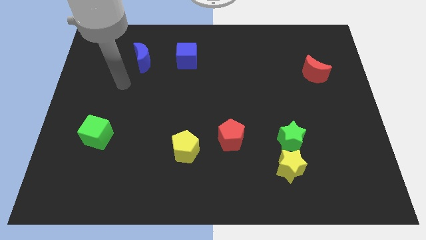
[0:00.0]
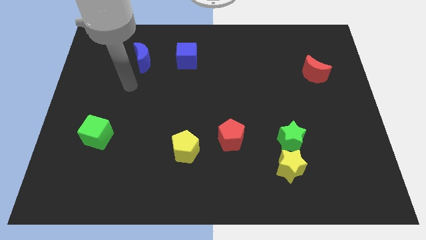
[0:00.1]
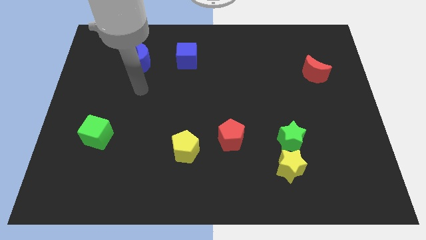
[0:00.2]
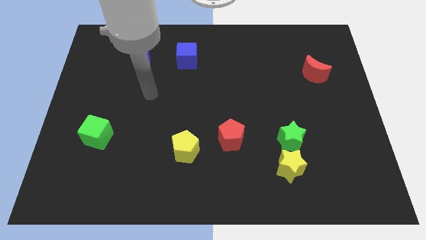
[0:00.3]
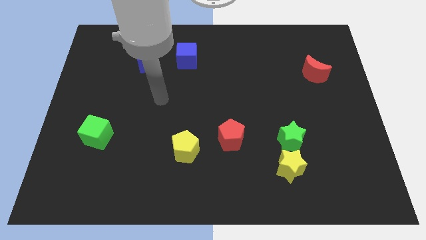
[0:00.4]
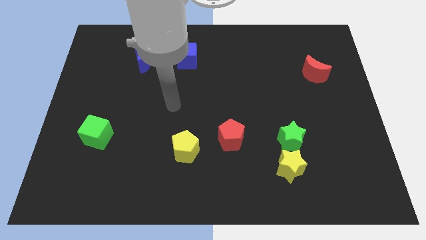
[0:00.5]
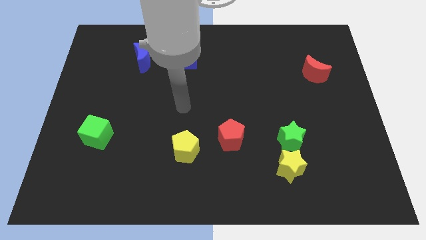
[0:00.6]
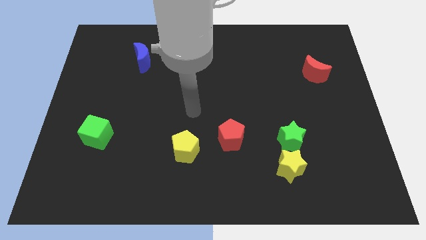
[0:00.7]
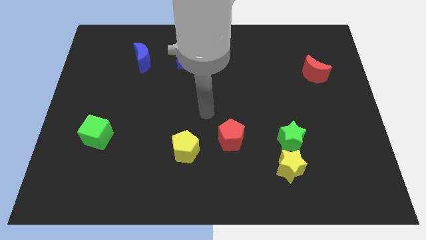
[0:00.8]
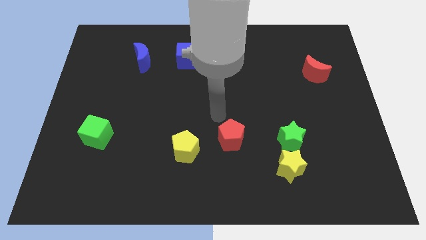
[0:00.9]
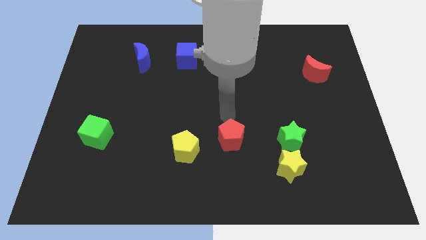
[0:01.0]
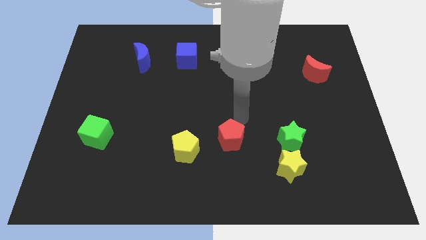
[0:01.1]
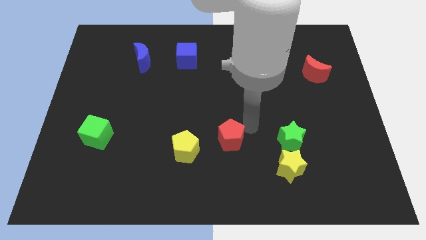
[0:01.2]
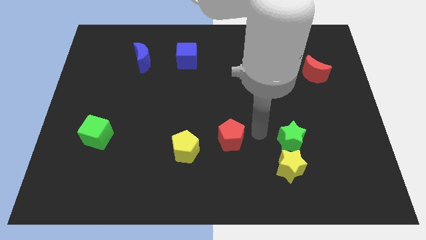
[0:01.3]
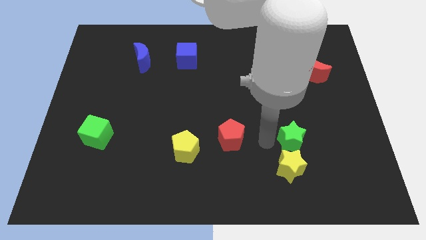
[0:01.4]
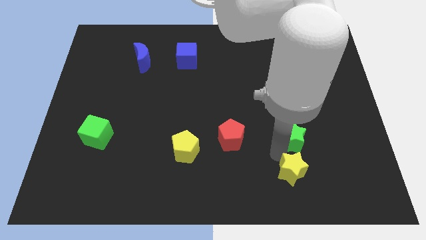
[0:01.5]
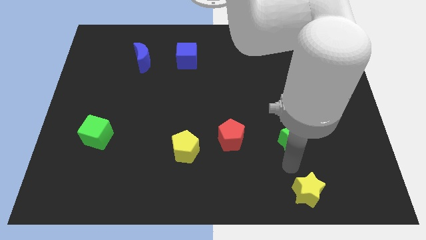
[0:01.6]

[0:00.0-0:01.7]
pull the green star apart from the yellow star

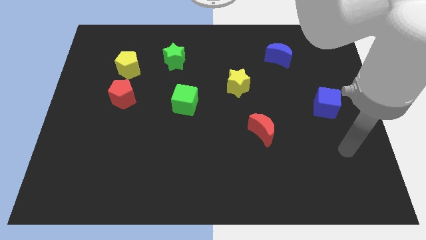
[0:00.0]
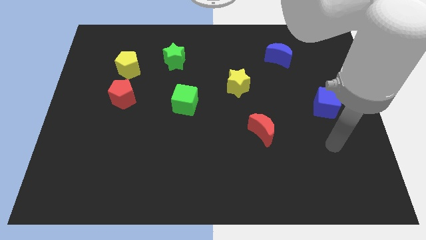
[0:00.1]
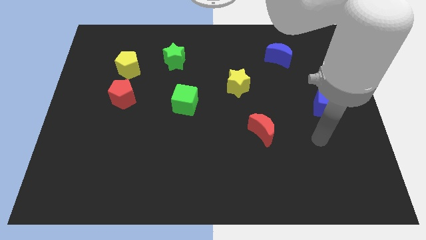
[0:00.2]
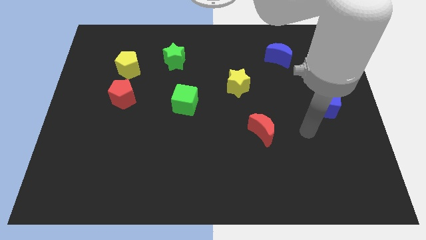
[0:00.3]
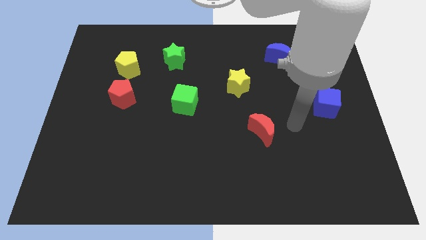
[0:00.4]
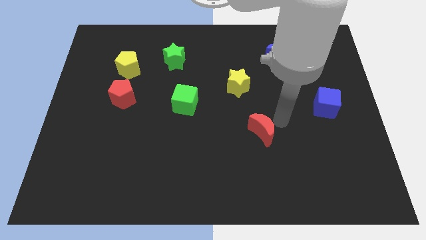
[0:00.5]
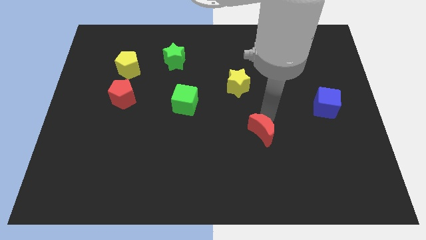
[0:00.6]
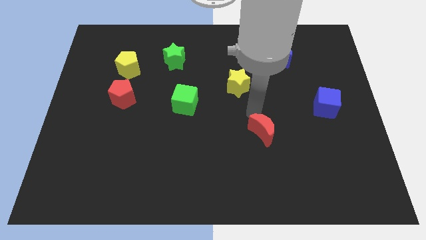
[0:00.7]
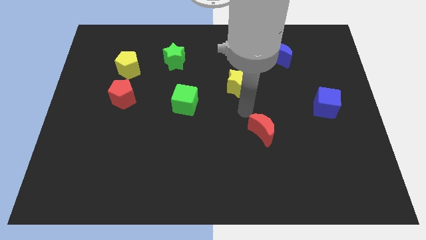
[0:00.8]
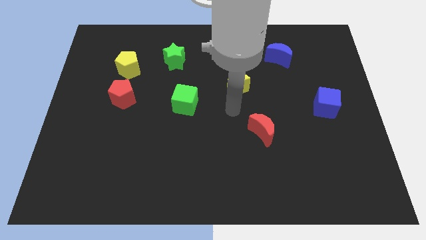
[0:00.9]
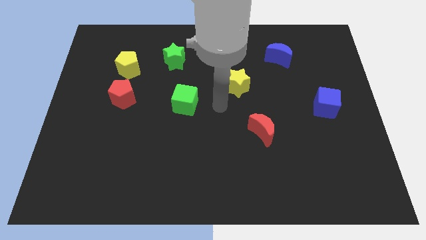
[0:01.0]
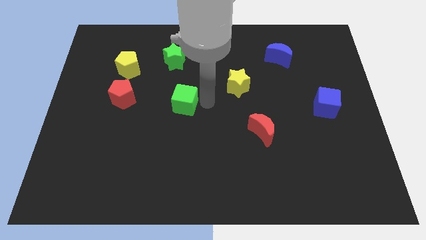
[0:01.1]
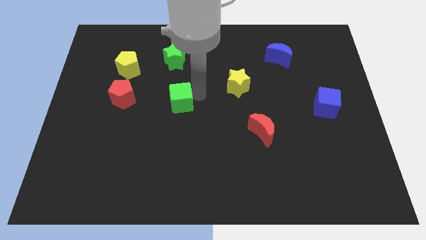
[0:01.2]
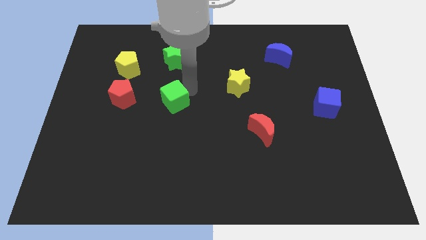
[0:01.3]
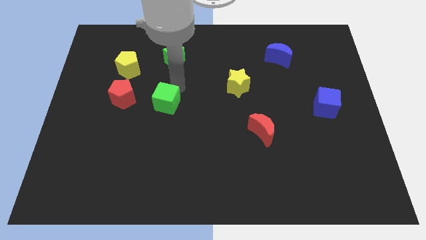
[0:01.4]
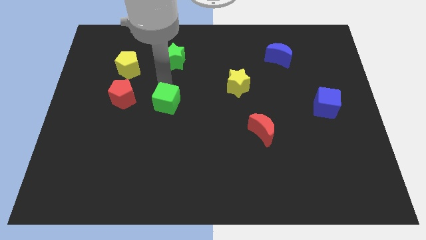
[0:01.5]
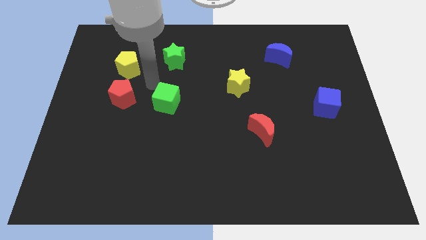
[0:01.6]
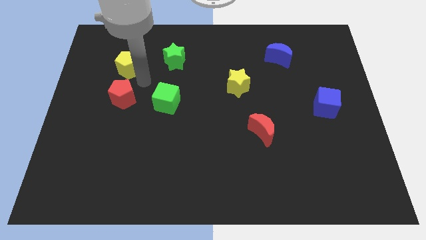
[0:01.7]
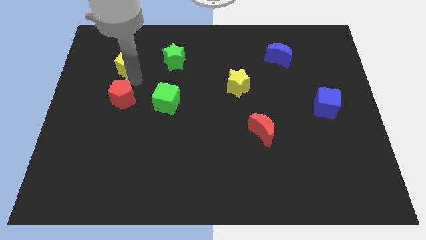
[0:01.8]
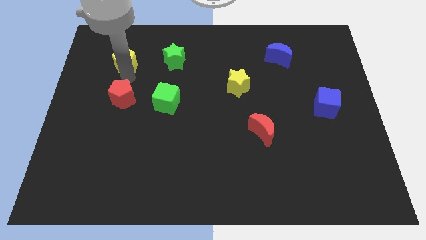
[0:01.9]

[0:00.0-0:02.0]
separate the red pentagon from the yellow pentagon

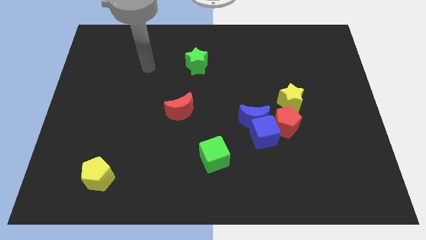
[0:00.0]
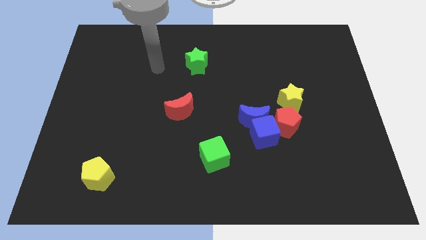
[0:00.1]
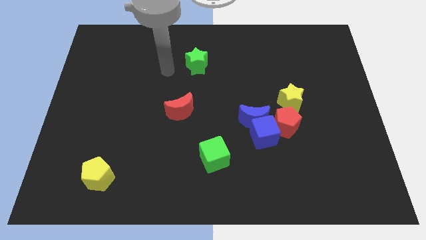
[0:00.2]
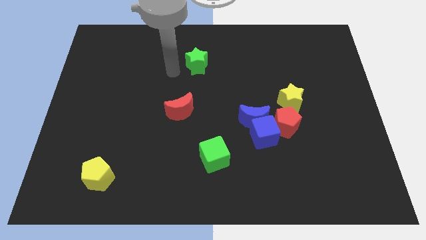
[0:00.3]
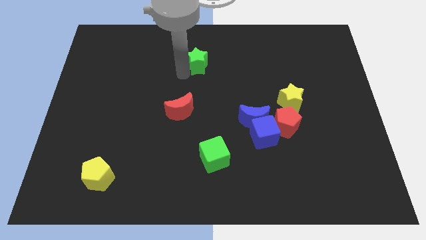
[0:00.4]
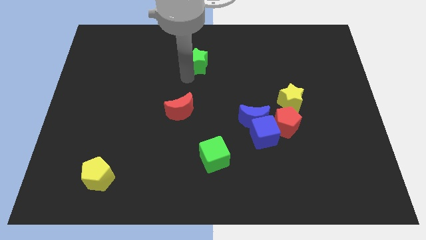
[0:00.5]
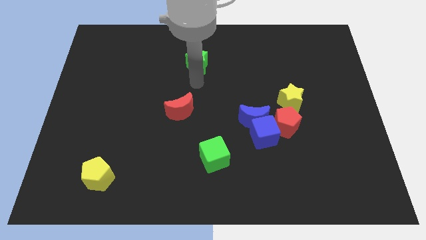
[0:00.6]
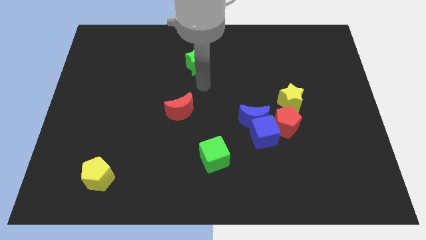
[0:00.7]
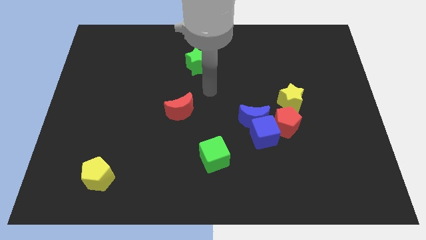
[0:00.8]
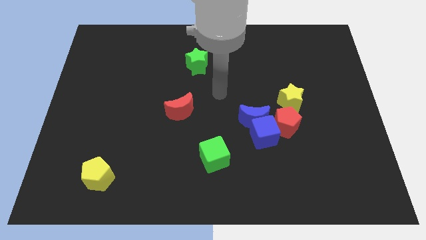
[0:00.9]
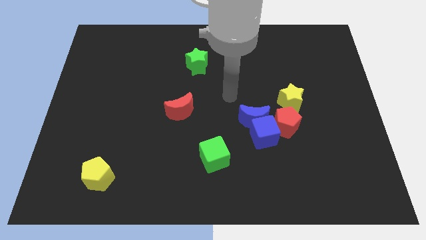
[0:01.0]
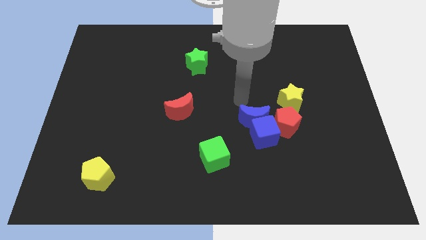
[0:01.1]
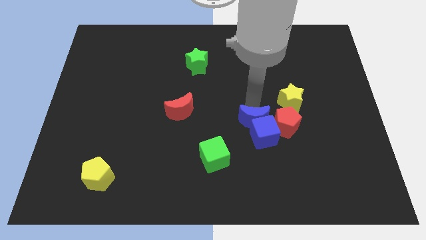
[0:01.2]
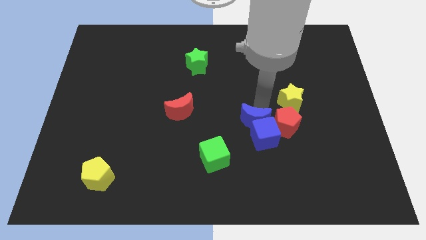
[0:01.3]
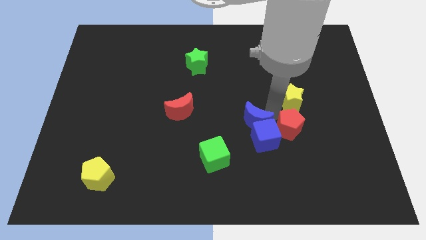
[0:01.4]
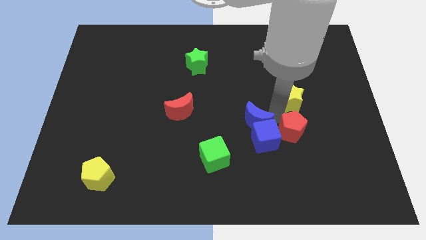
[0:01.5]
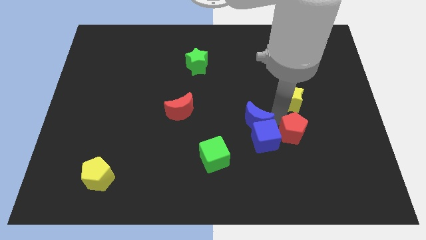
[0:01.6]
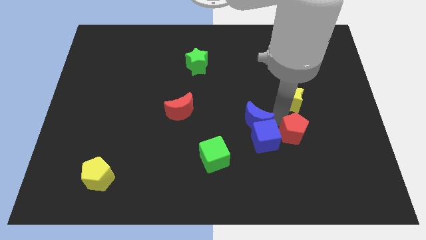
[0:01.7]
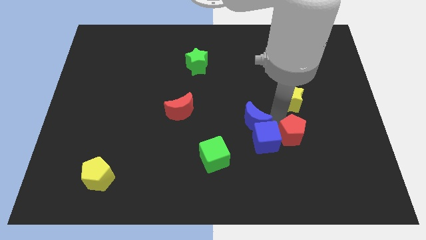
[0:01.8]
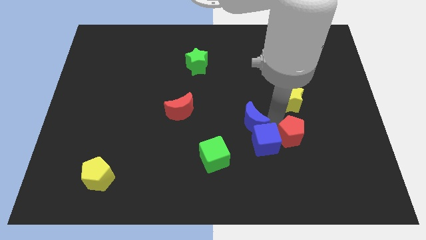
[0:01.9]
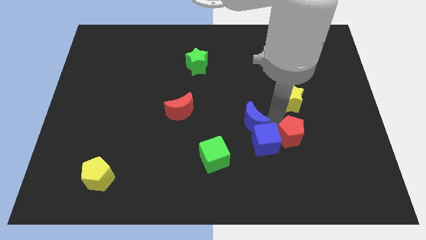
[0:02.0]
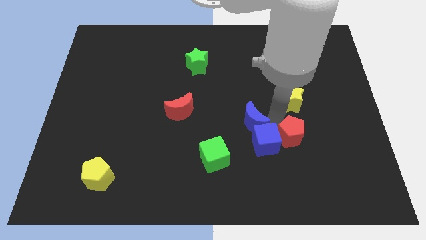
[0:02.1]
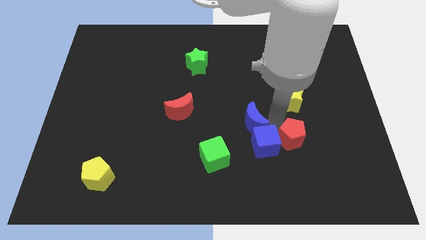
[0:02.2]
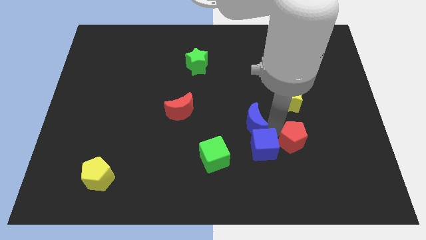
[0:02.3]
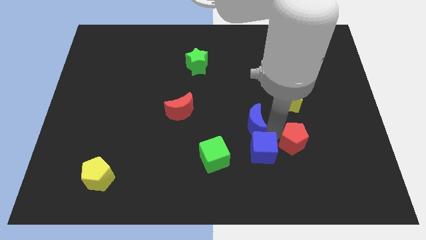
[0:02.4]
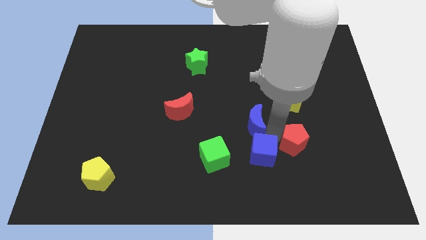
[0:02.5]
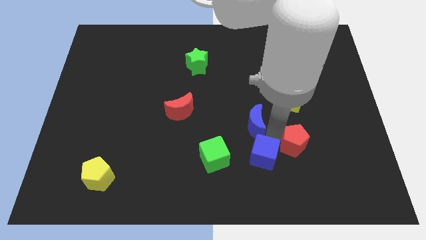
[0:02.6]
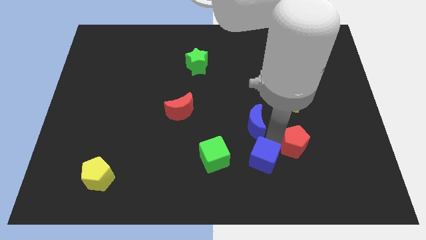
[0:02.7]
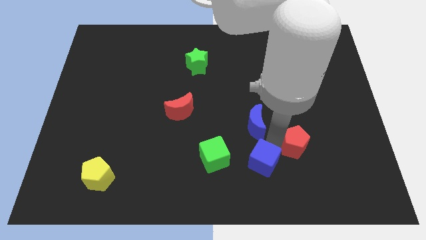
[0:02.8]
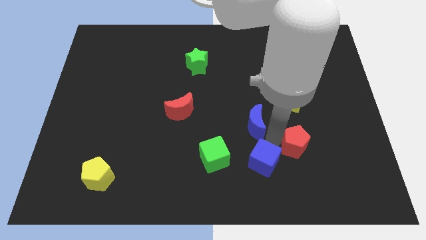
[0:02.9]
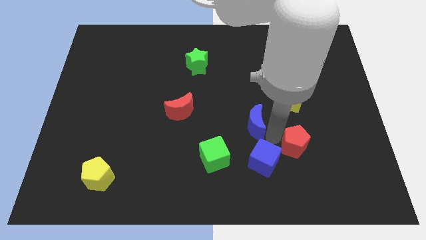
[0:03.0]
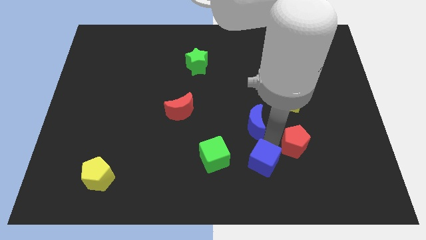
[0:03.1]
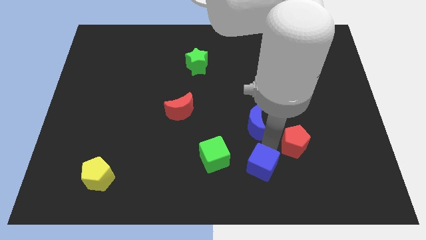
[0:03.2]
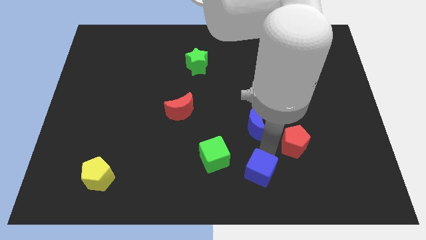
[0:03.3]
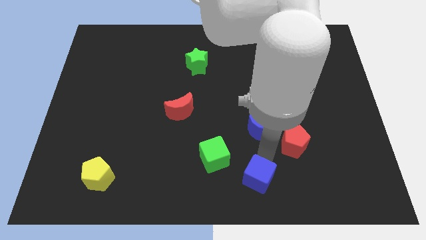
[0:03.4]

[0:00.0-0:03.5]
pull the blue cube apart from the blue moon and red pentagon

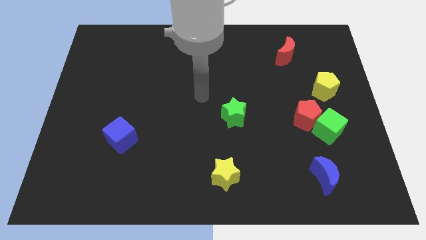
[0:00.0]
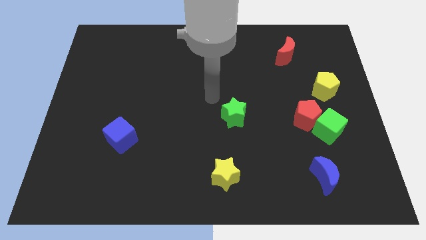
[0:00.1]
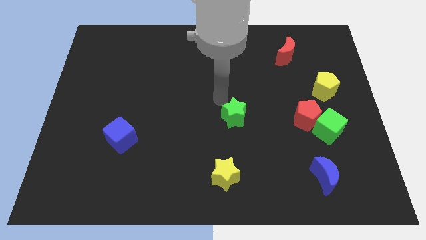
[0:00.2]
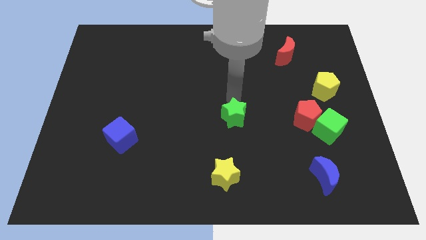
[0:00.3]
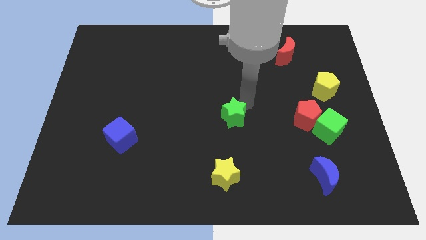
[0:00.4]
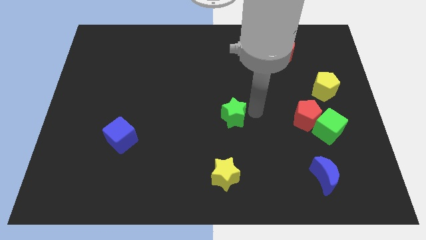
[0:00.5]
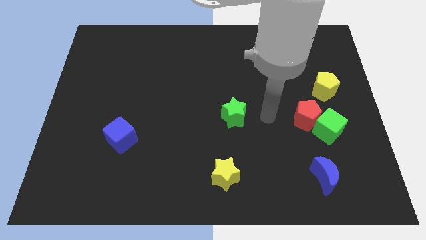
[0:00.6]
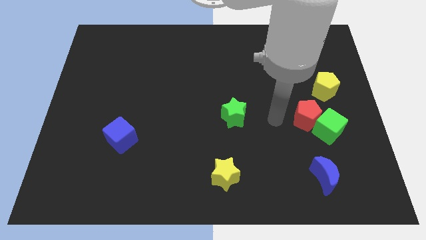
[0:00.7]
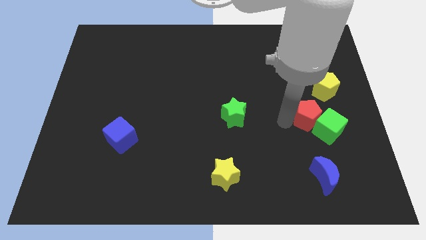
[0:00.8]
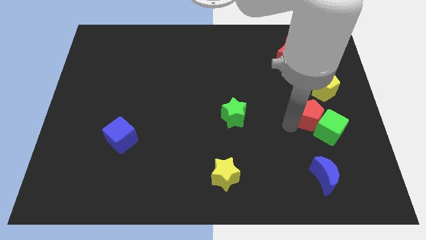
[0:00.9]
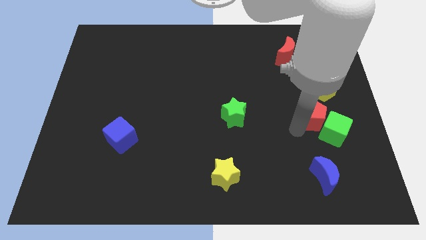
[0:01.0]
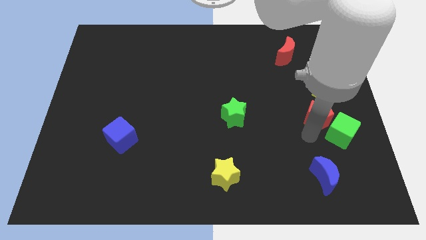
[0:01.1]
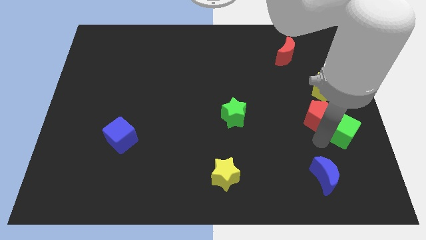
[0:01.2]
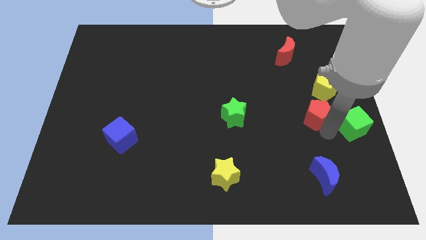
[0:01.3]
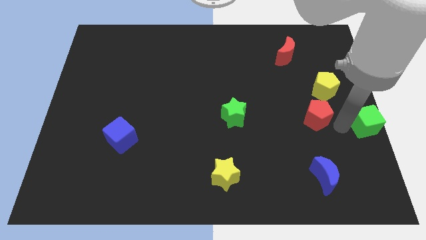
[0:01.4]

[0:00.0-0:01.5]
separate the red pentagon from the green cube

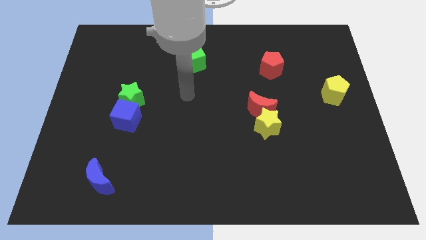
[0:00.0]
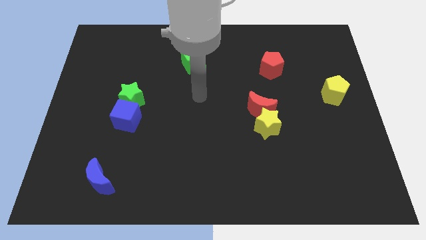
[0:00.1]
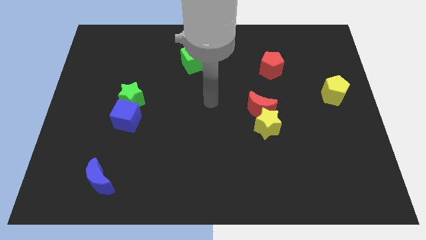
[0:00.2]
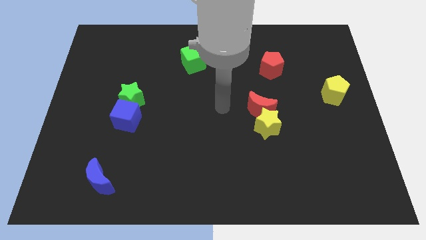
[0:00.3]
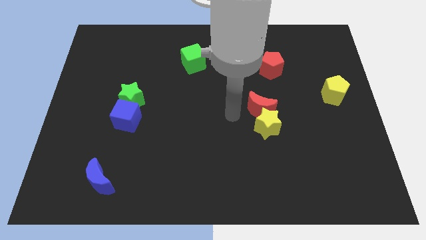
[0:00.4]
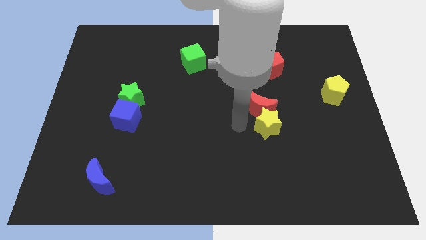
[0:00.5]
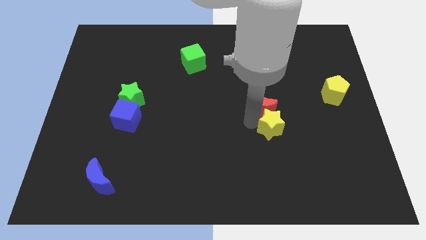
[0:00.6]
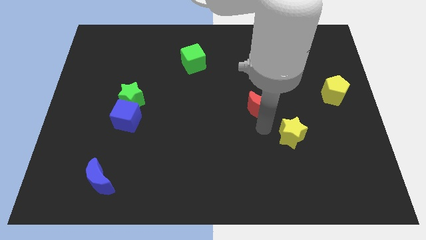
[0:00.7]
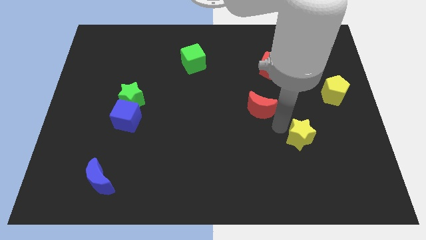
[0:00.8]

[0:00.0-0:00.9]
pull the red moon apart from the yellow star
